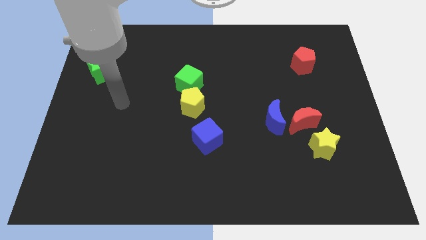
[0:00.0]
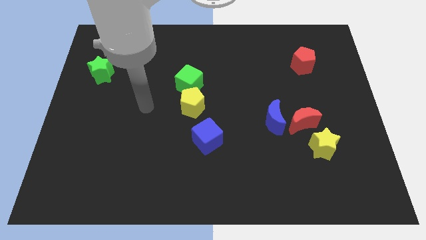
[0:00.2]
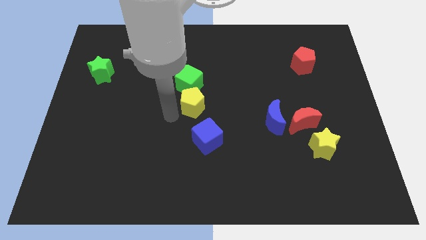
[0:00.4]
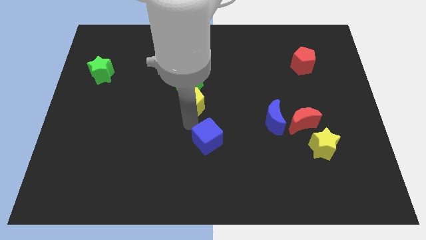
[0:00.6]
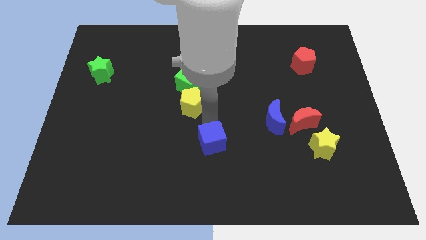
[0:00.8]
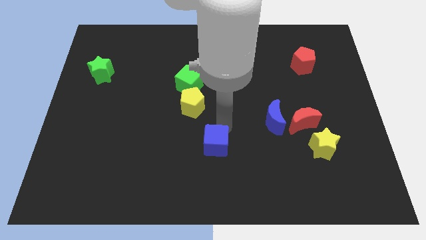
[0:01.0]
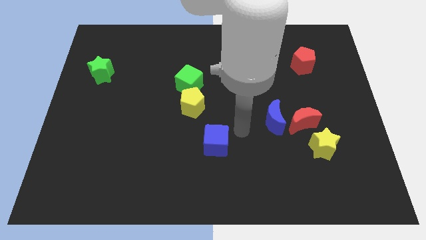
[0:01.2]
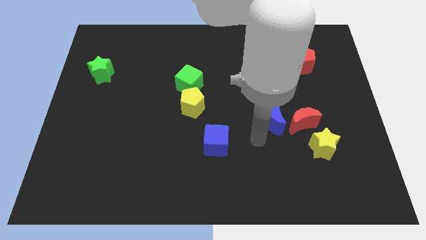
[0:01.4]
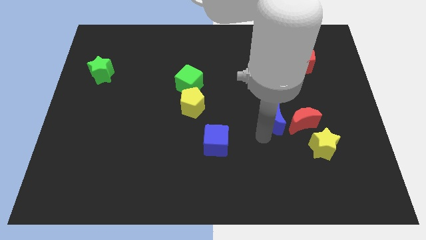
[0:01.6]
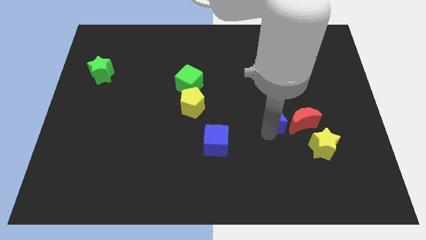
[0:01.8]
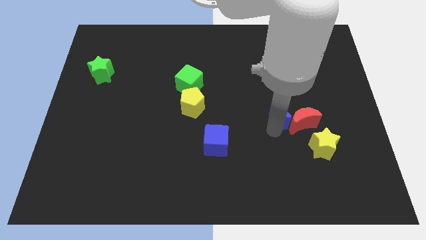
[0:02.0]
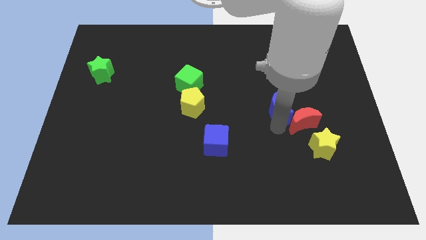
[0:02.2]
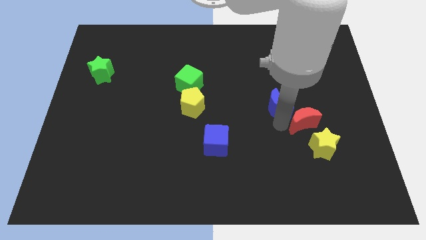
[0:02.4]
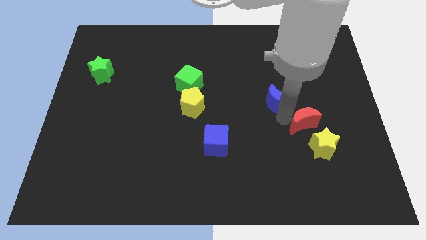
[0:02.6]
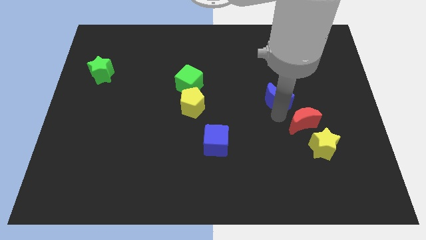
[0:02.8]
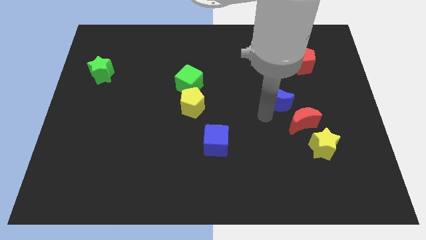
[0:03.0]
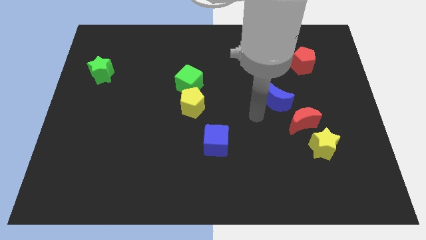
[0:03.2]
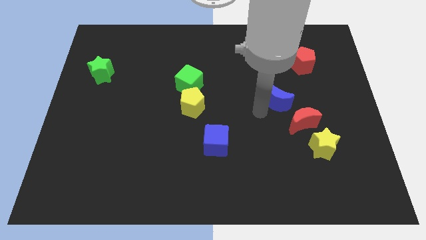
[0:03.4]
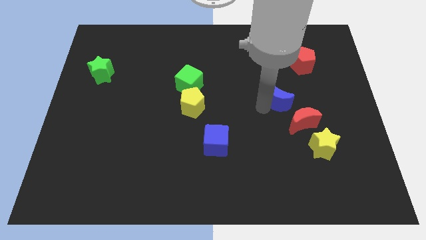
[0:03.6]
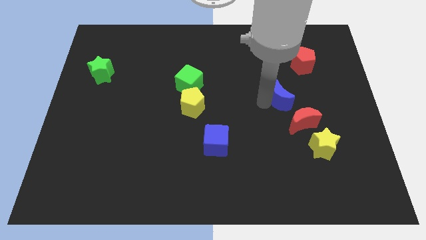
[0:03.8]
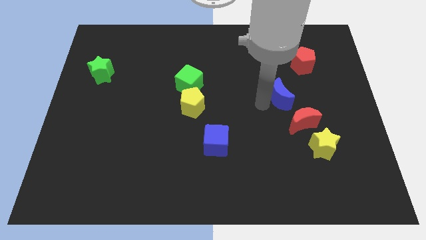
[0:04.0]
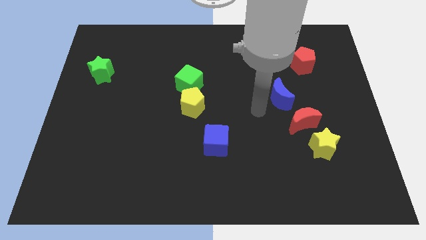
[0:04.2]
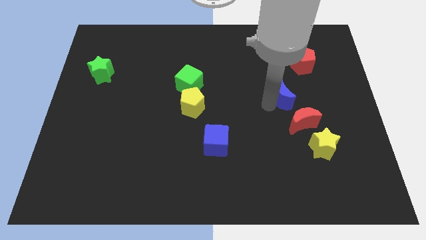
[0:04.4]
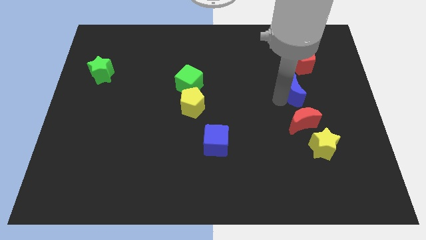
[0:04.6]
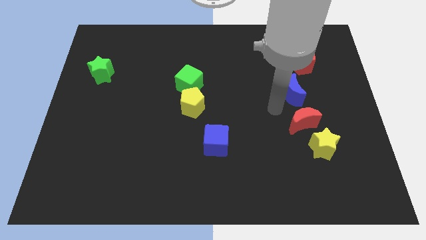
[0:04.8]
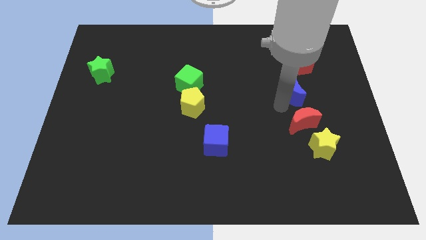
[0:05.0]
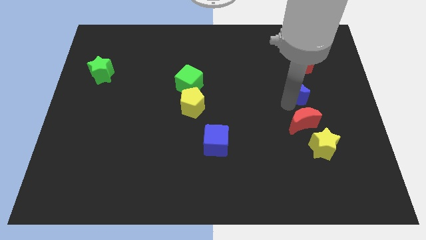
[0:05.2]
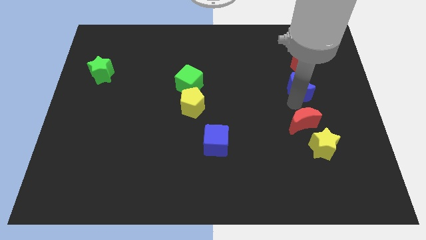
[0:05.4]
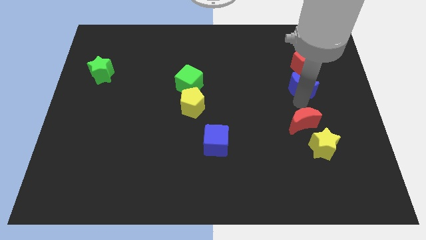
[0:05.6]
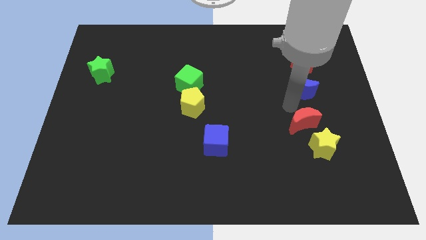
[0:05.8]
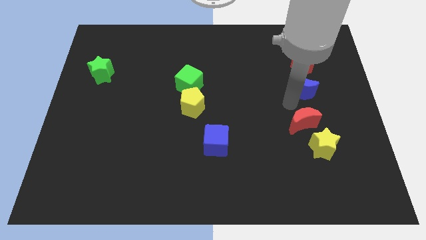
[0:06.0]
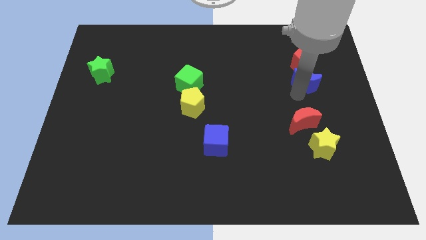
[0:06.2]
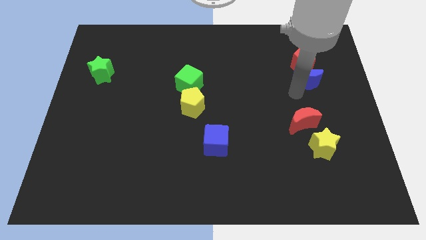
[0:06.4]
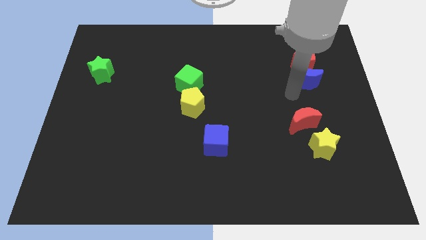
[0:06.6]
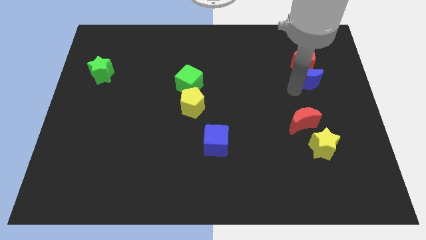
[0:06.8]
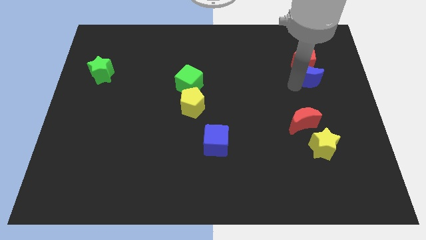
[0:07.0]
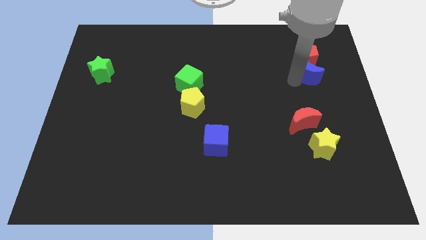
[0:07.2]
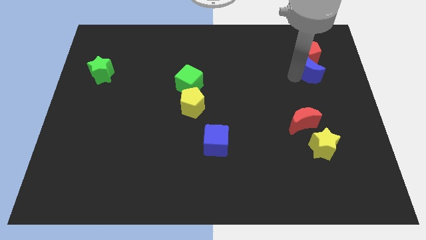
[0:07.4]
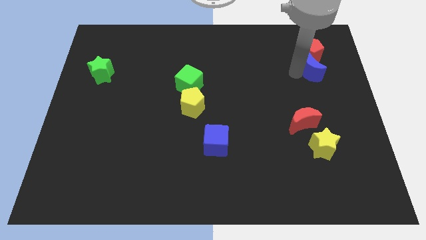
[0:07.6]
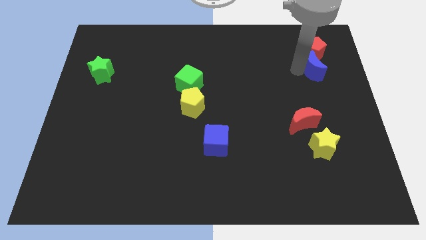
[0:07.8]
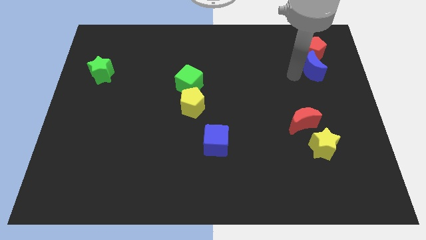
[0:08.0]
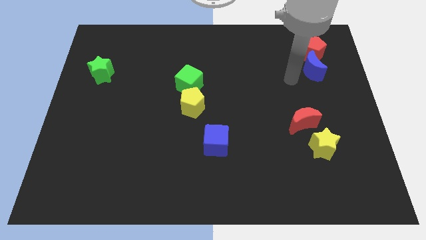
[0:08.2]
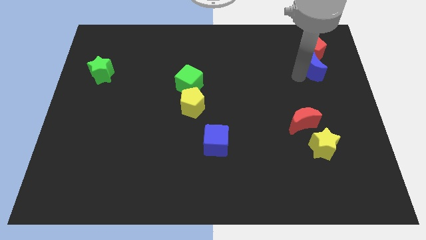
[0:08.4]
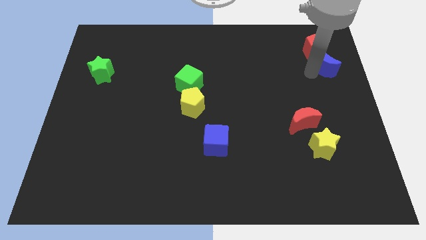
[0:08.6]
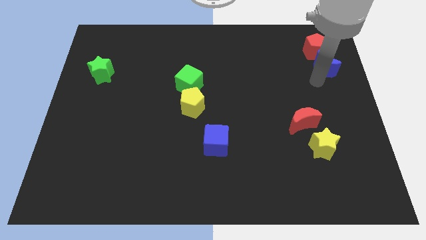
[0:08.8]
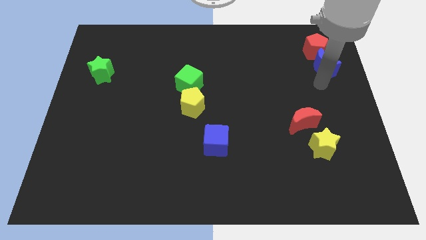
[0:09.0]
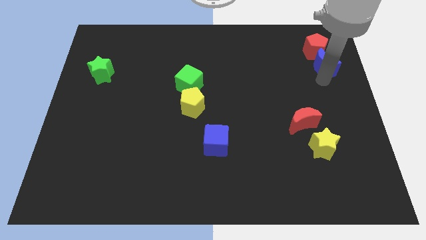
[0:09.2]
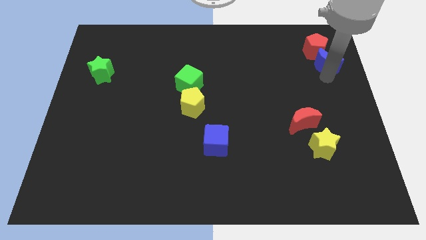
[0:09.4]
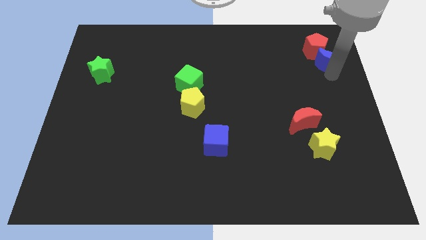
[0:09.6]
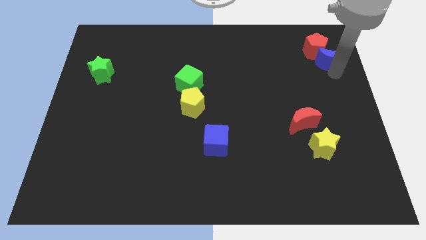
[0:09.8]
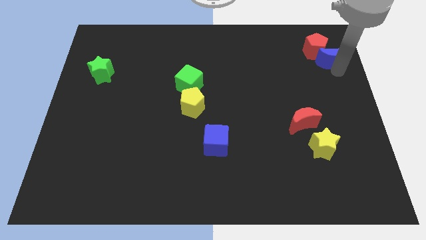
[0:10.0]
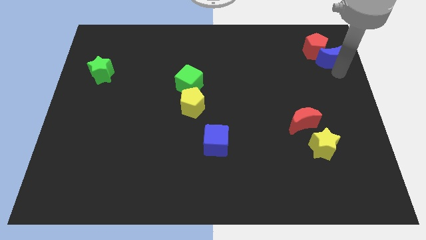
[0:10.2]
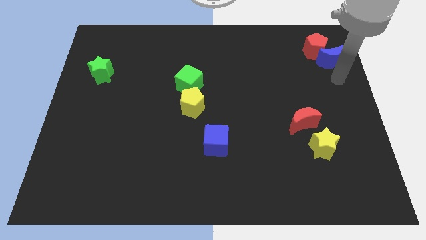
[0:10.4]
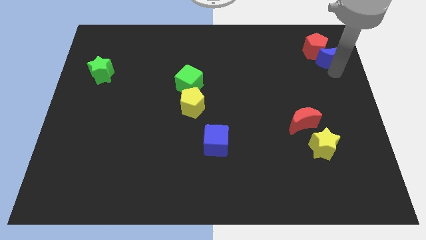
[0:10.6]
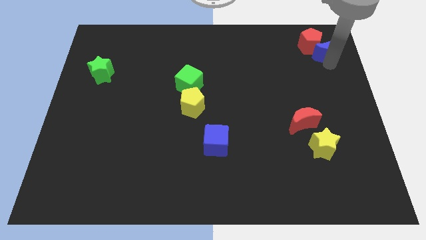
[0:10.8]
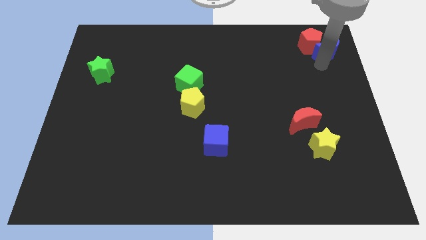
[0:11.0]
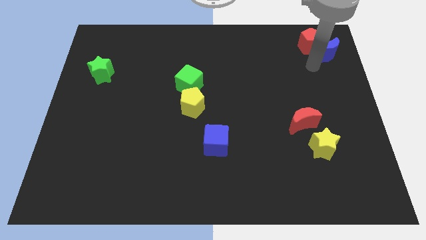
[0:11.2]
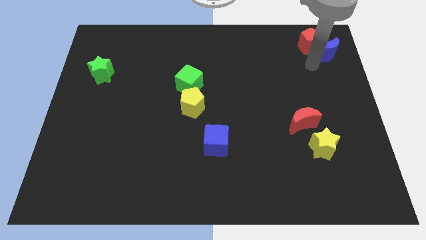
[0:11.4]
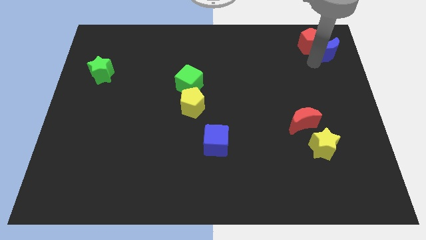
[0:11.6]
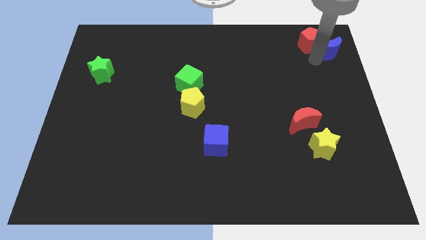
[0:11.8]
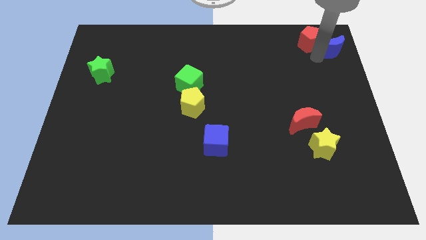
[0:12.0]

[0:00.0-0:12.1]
move the blue moon to the top right of the board
